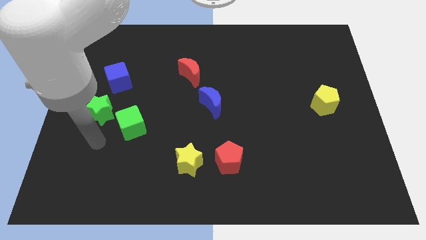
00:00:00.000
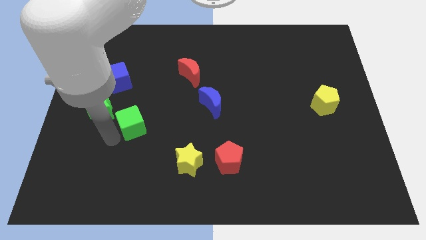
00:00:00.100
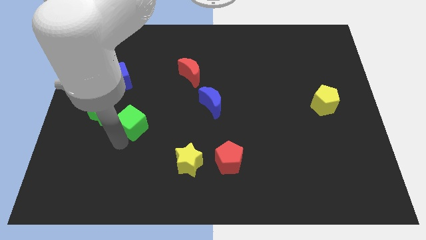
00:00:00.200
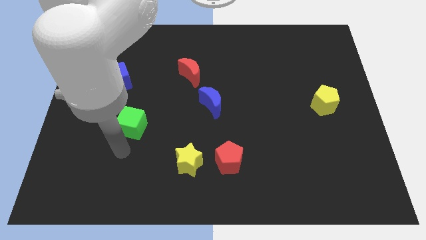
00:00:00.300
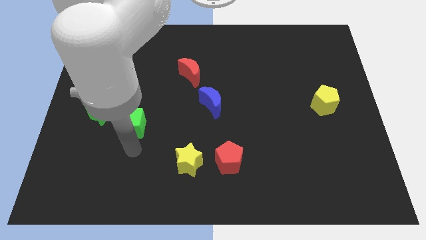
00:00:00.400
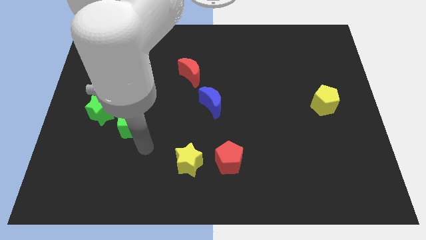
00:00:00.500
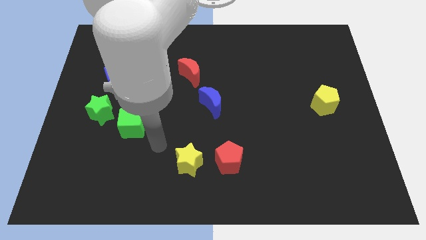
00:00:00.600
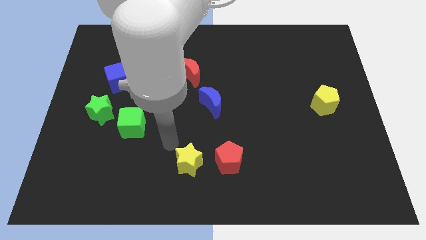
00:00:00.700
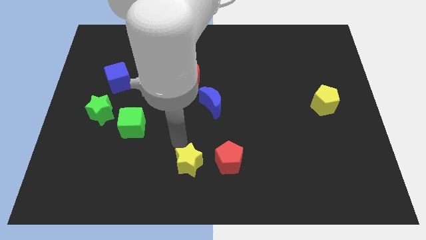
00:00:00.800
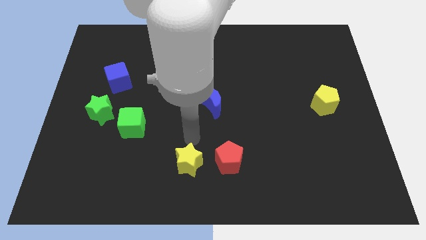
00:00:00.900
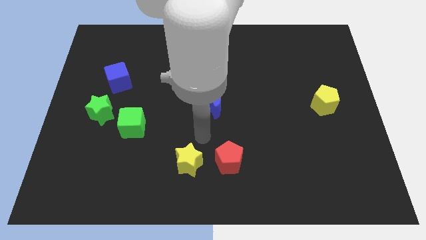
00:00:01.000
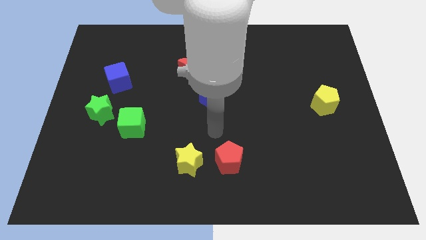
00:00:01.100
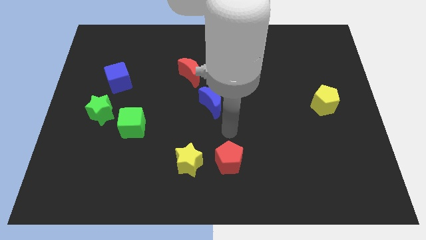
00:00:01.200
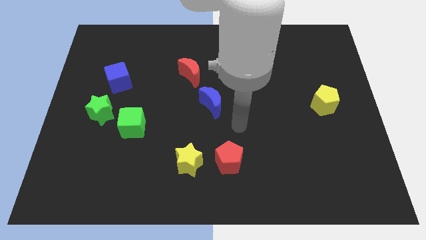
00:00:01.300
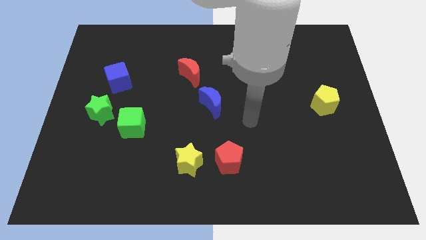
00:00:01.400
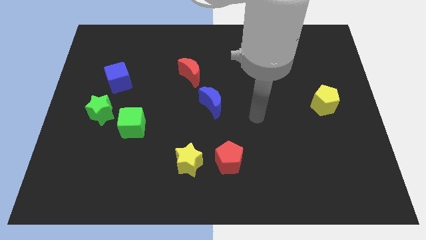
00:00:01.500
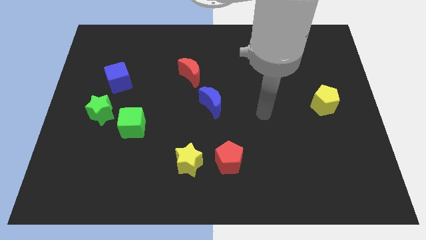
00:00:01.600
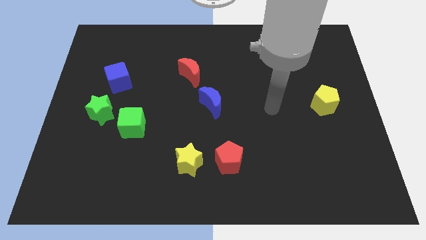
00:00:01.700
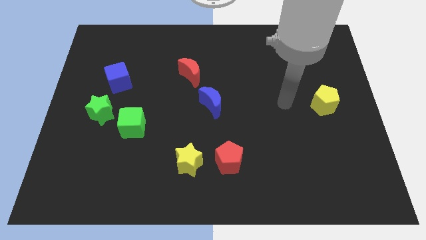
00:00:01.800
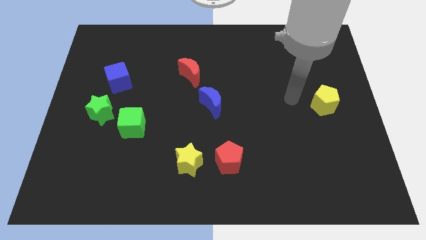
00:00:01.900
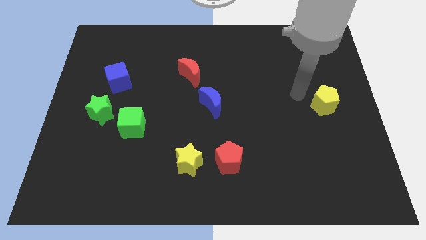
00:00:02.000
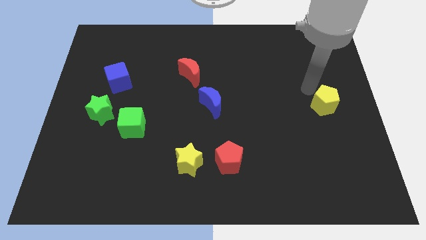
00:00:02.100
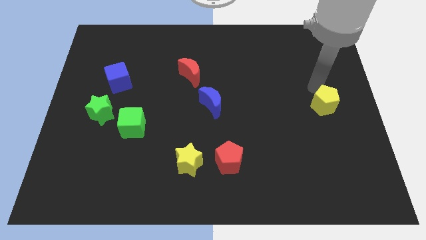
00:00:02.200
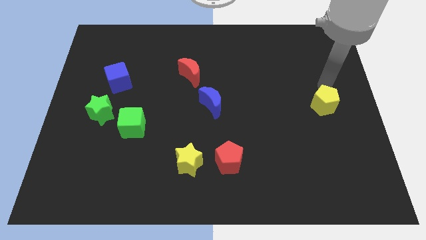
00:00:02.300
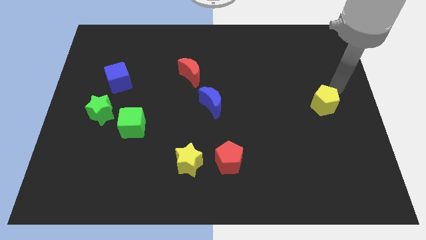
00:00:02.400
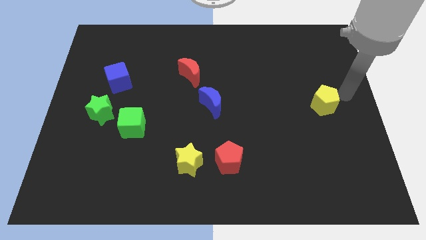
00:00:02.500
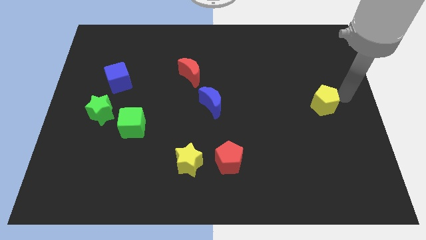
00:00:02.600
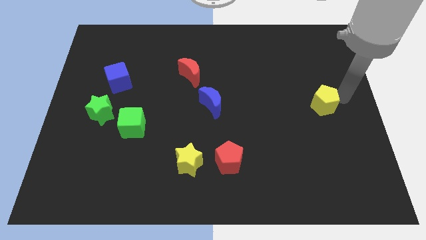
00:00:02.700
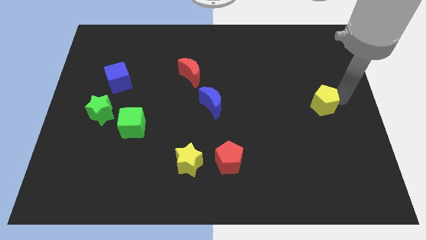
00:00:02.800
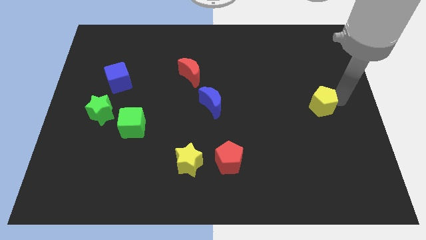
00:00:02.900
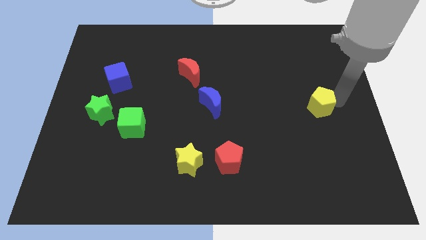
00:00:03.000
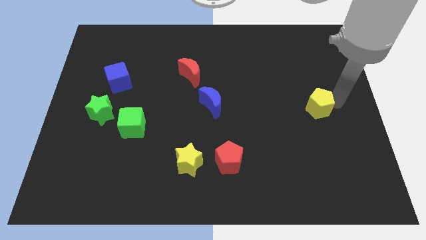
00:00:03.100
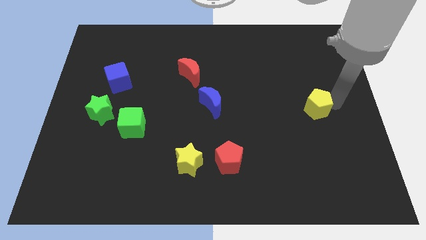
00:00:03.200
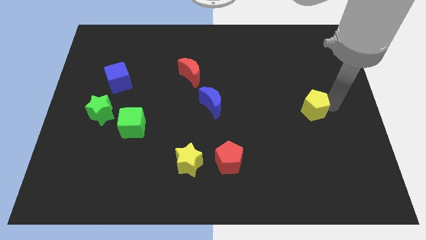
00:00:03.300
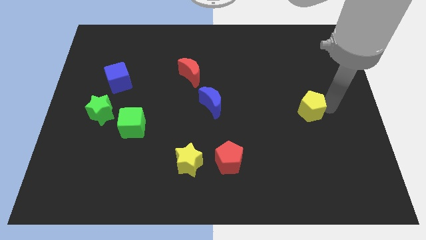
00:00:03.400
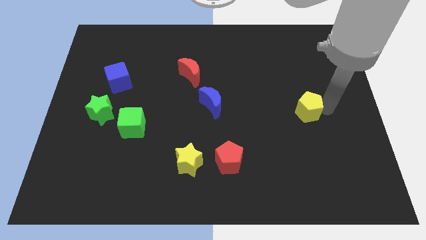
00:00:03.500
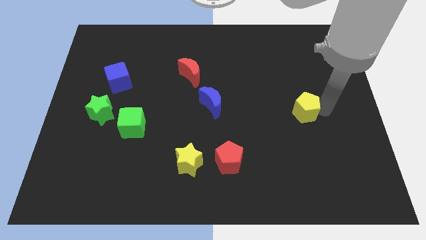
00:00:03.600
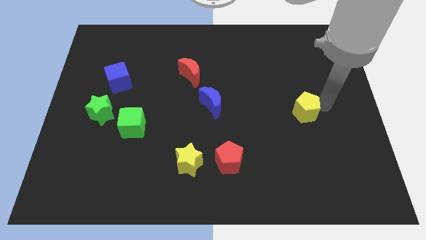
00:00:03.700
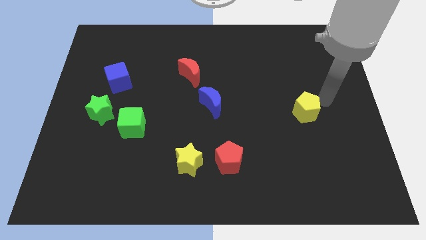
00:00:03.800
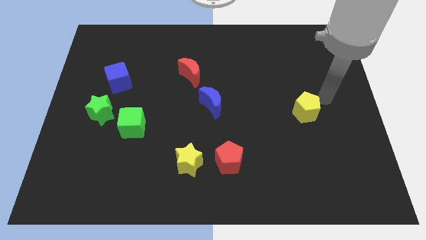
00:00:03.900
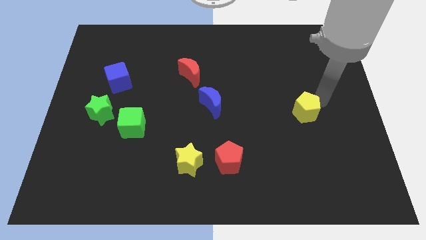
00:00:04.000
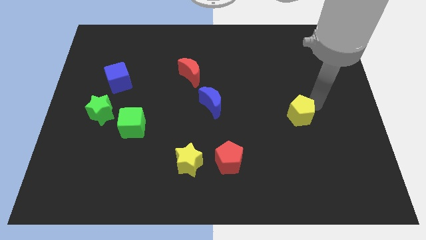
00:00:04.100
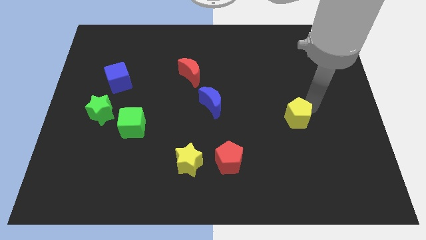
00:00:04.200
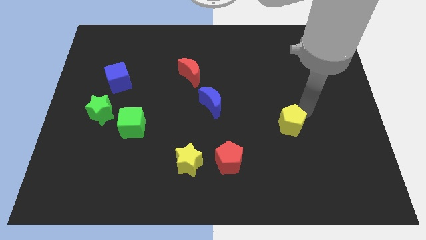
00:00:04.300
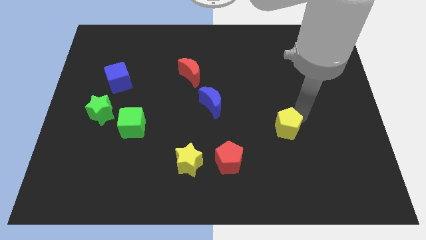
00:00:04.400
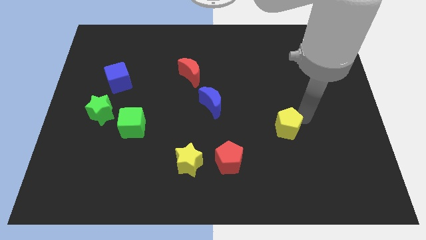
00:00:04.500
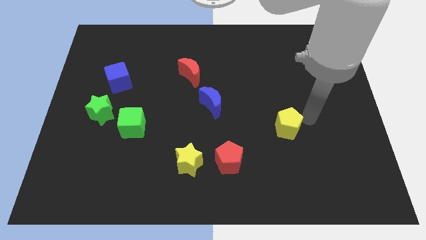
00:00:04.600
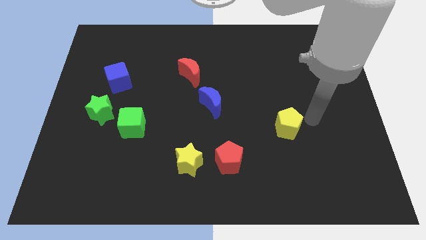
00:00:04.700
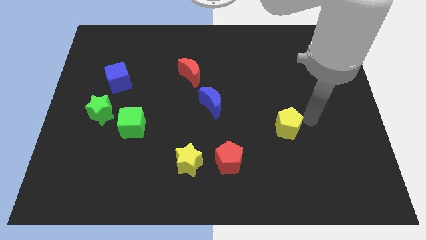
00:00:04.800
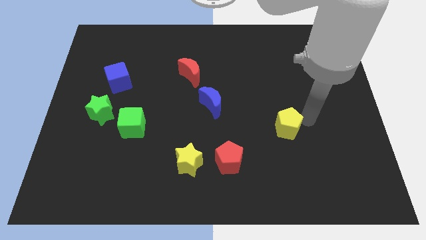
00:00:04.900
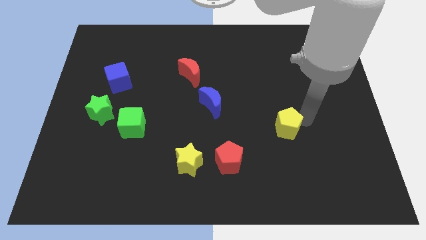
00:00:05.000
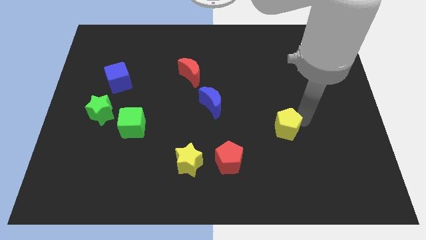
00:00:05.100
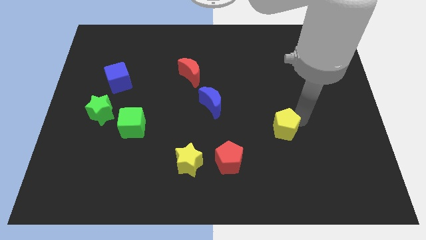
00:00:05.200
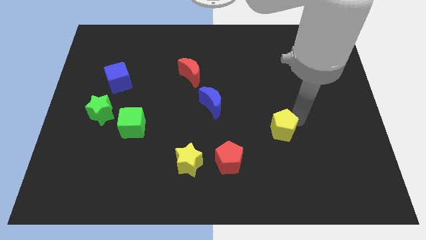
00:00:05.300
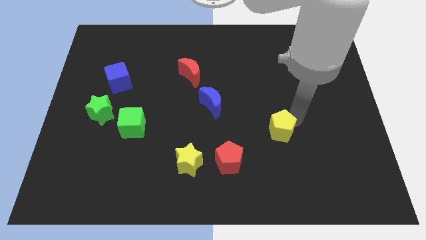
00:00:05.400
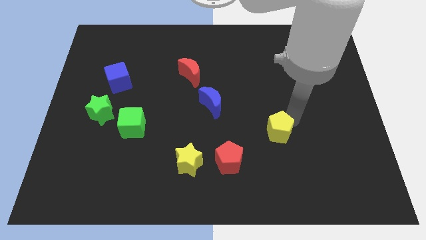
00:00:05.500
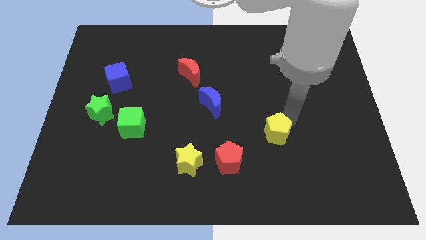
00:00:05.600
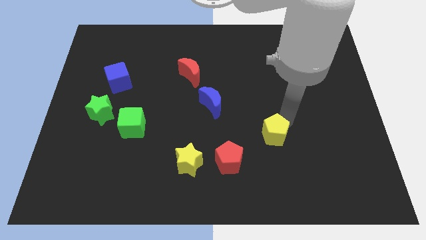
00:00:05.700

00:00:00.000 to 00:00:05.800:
push the yellow pentagon to the top right of the red pentagon

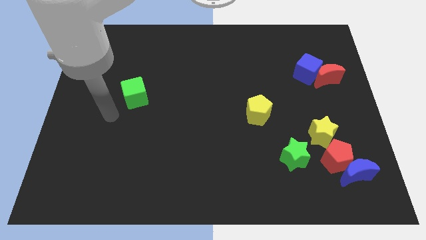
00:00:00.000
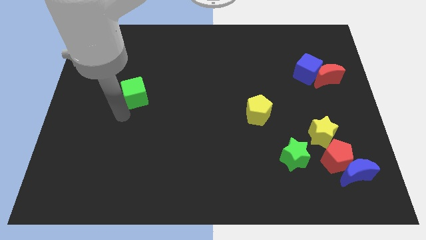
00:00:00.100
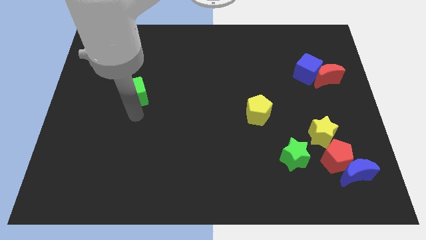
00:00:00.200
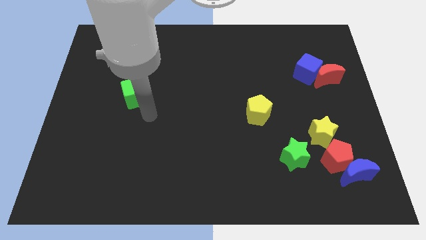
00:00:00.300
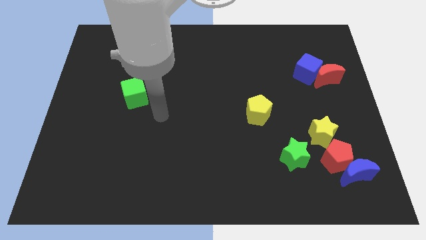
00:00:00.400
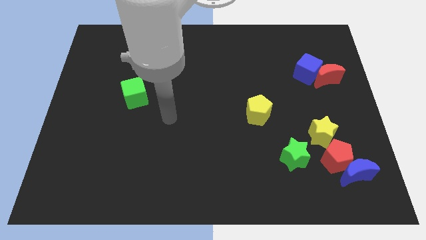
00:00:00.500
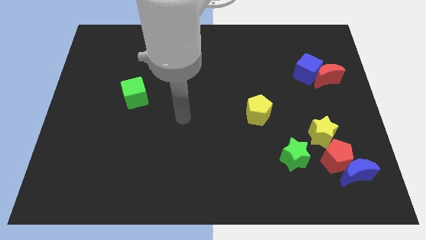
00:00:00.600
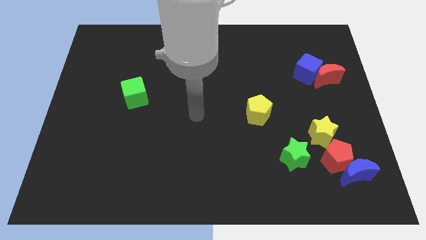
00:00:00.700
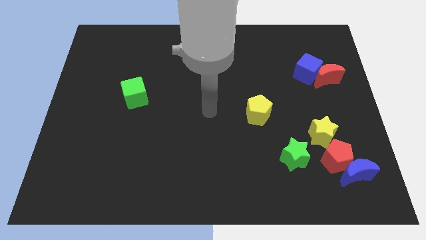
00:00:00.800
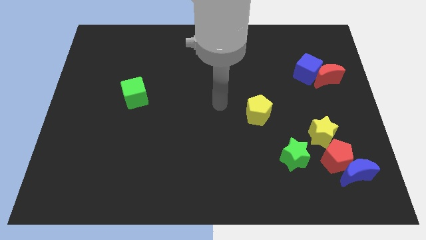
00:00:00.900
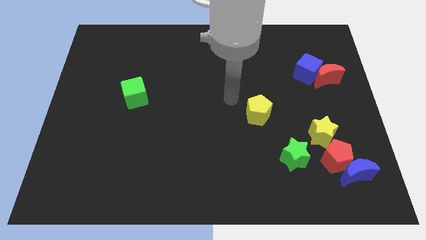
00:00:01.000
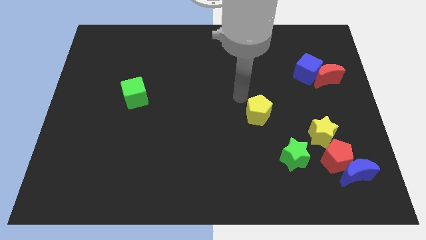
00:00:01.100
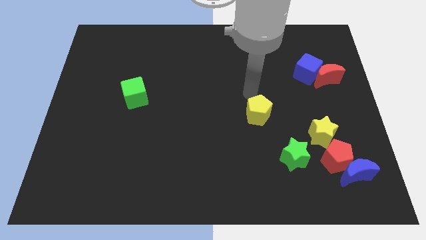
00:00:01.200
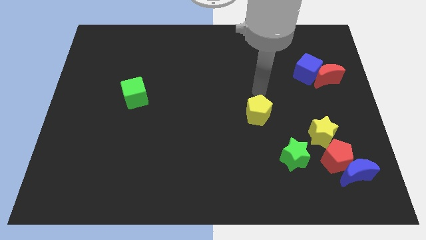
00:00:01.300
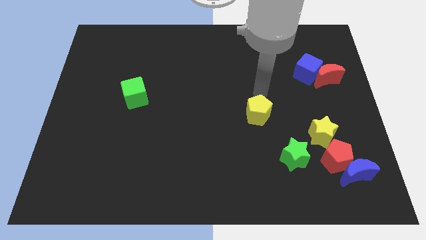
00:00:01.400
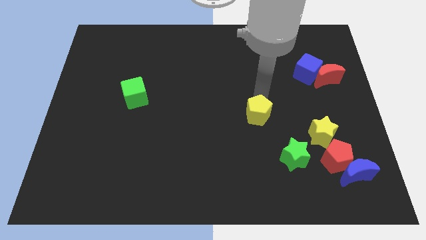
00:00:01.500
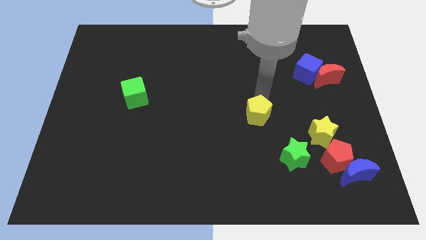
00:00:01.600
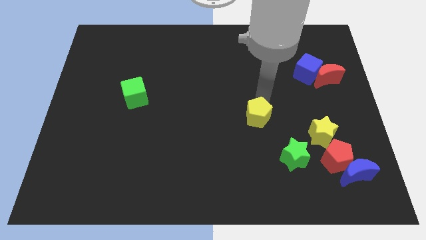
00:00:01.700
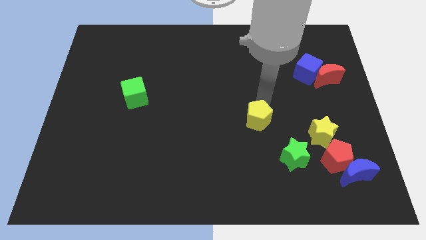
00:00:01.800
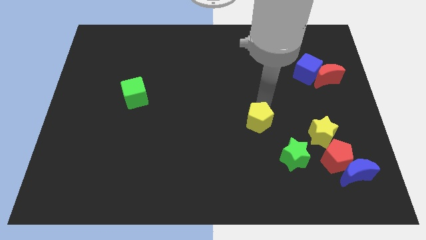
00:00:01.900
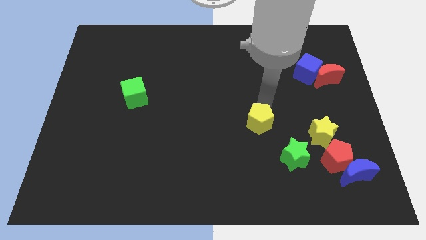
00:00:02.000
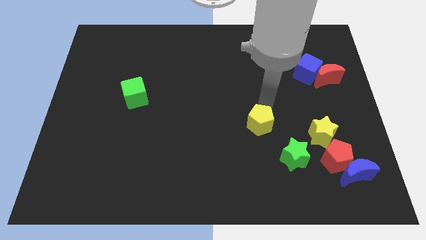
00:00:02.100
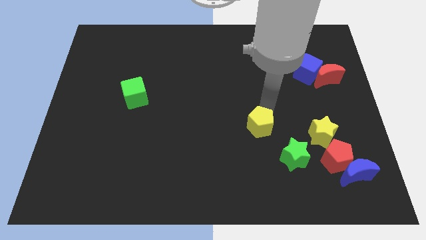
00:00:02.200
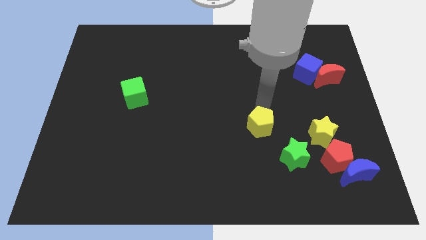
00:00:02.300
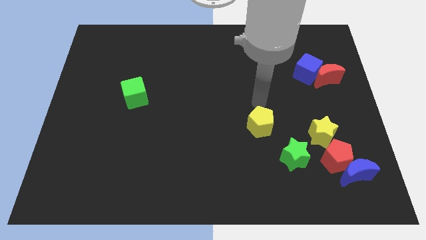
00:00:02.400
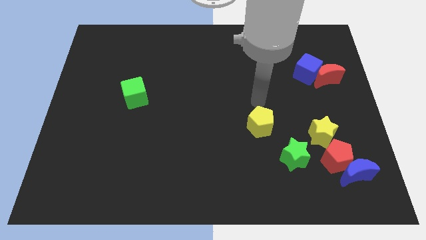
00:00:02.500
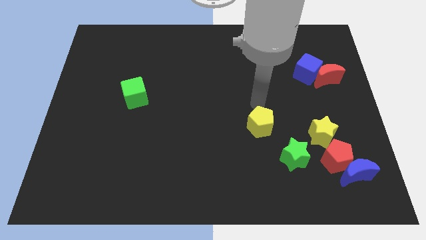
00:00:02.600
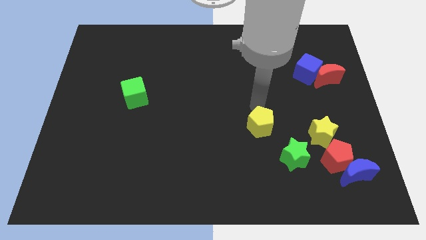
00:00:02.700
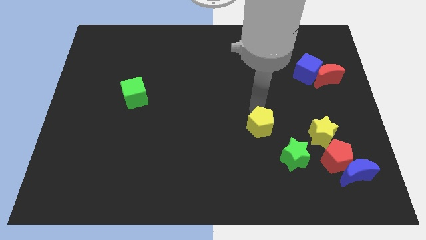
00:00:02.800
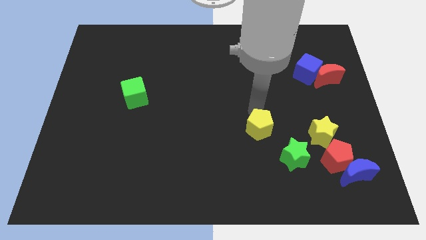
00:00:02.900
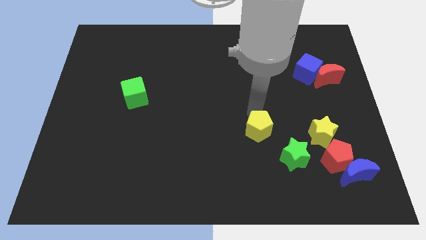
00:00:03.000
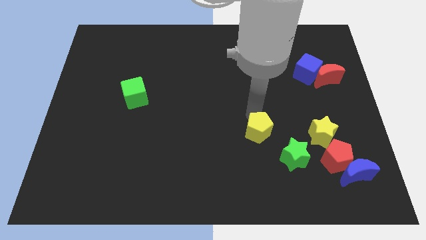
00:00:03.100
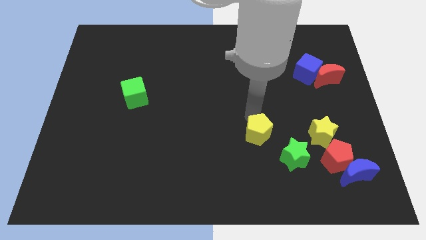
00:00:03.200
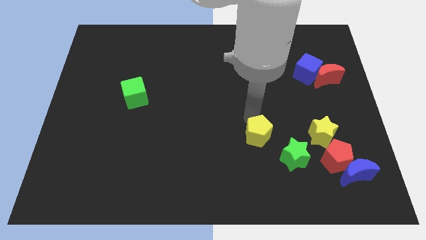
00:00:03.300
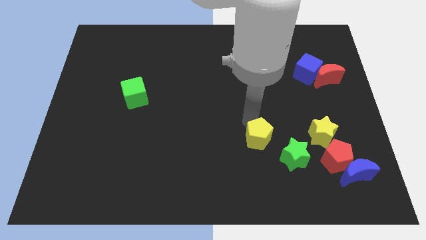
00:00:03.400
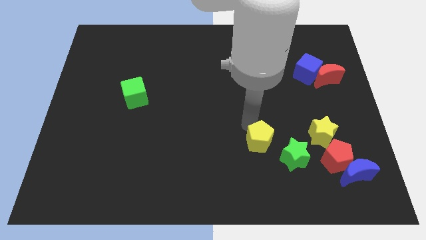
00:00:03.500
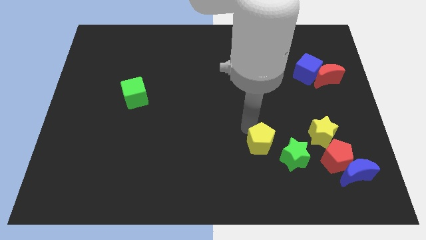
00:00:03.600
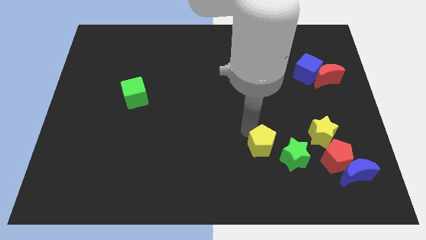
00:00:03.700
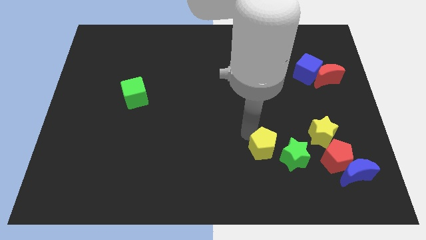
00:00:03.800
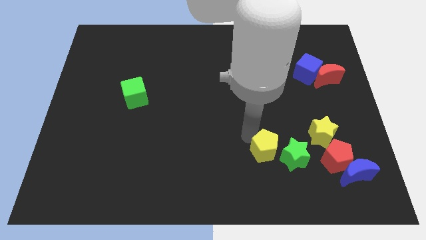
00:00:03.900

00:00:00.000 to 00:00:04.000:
move the yellow pentagon to the left side of the red pentagon
